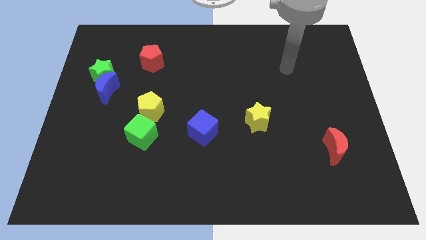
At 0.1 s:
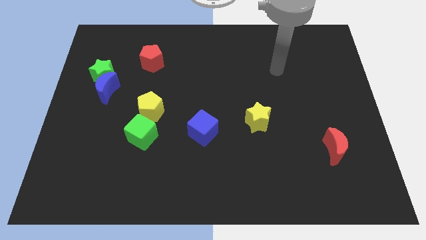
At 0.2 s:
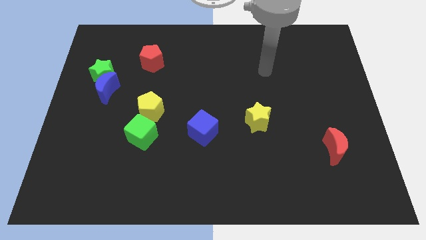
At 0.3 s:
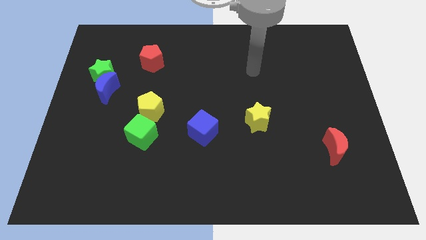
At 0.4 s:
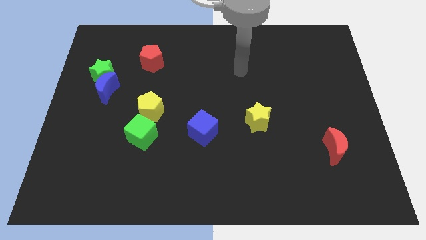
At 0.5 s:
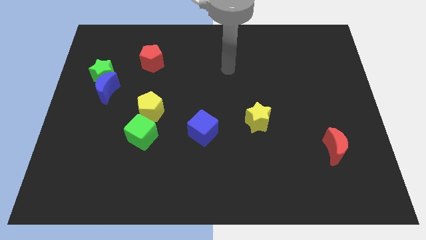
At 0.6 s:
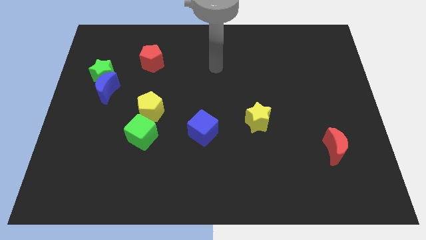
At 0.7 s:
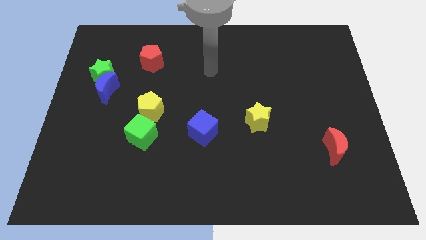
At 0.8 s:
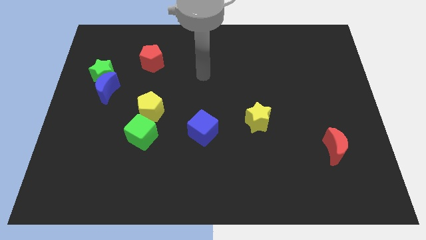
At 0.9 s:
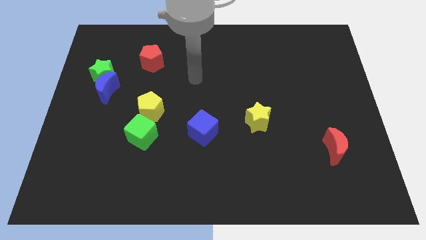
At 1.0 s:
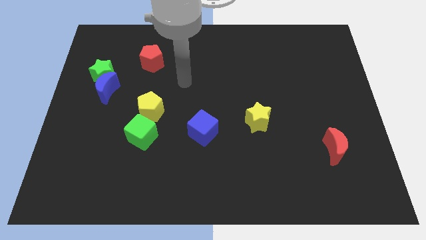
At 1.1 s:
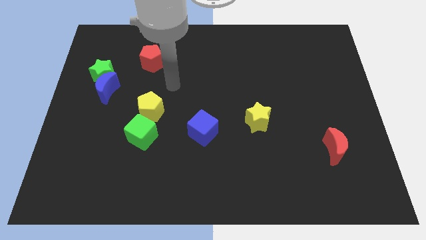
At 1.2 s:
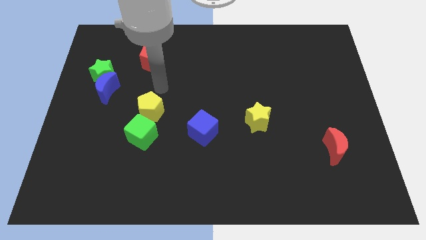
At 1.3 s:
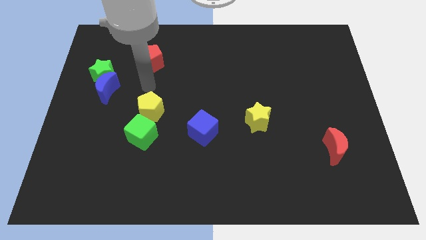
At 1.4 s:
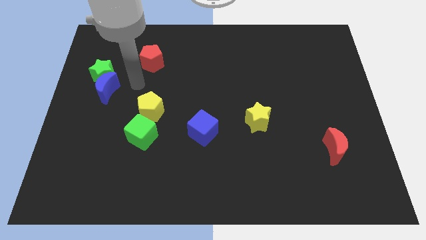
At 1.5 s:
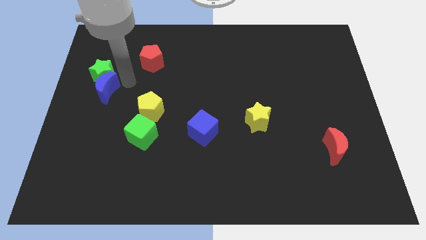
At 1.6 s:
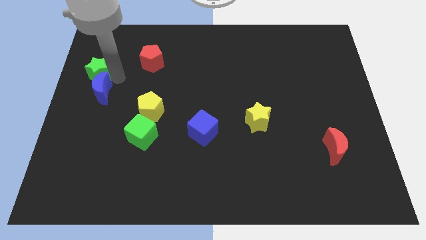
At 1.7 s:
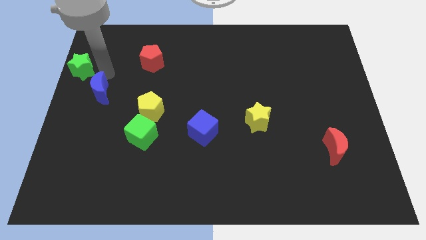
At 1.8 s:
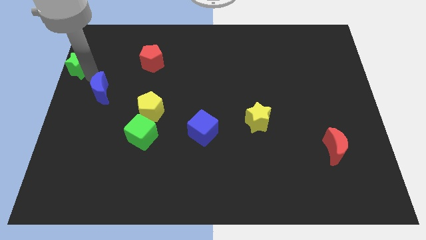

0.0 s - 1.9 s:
move the blue moon away from the green star

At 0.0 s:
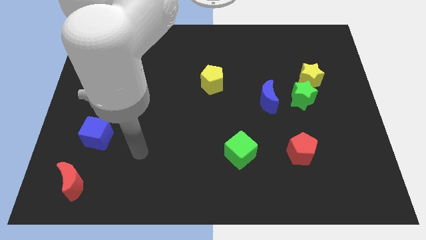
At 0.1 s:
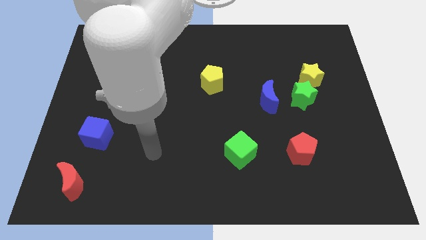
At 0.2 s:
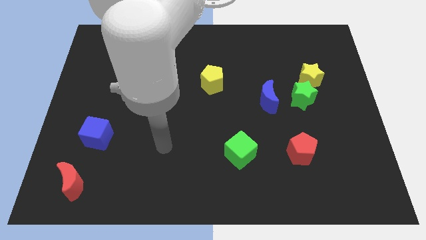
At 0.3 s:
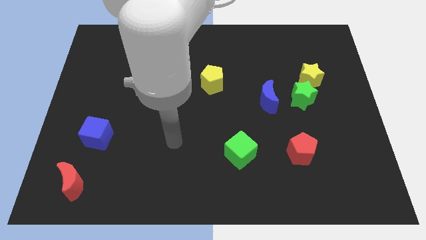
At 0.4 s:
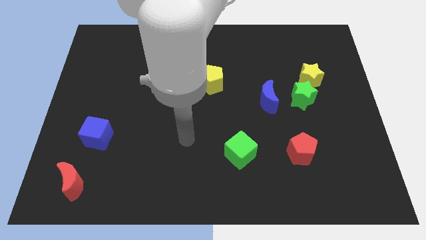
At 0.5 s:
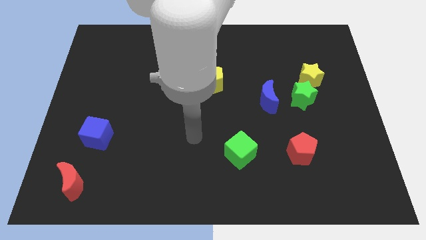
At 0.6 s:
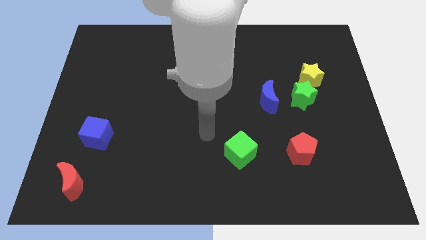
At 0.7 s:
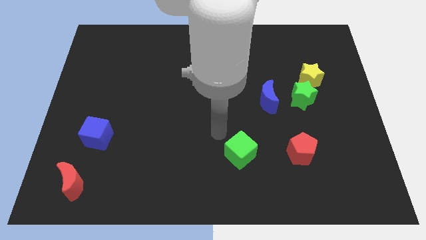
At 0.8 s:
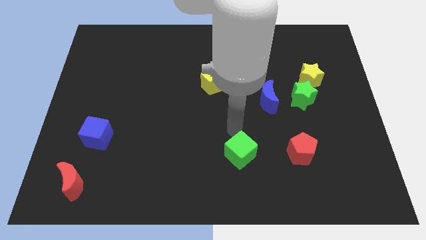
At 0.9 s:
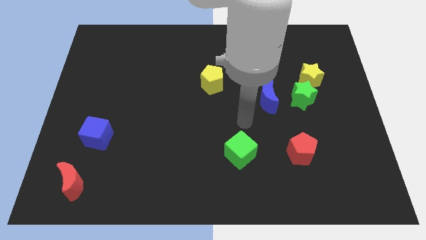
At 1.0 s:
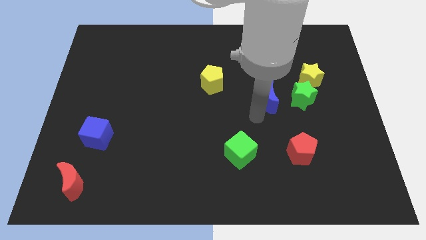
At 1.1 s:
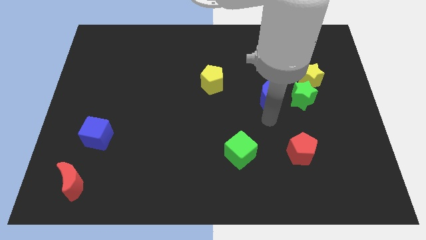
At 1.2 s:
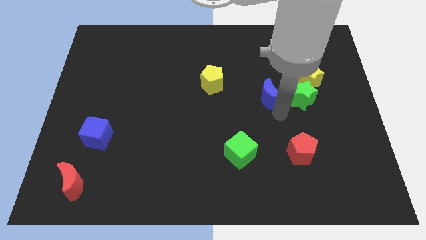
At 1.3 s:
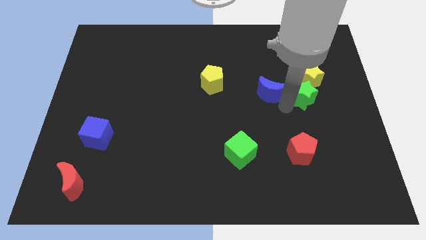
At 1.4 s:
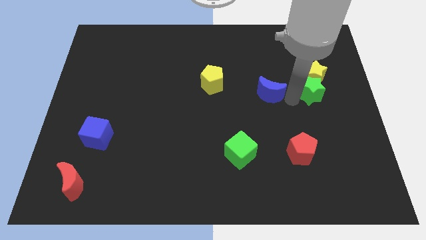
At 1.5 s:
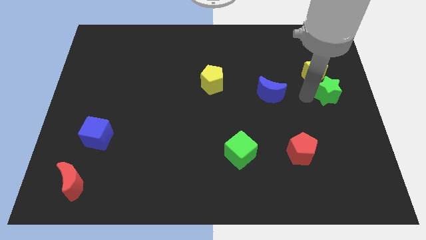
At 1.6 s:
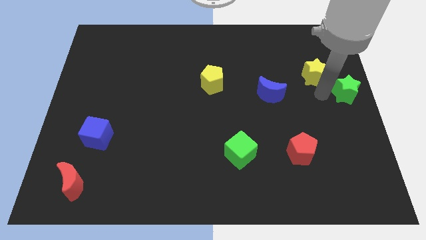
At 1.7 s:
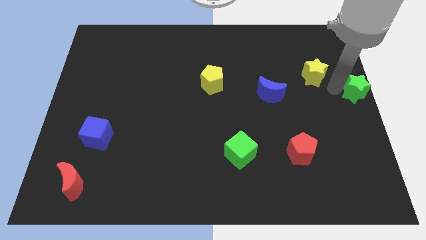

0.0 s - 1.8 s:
separate the yellow star from the green star

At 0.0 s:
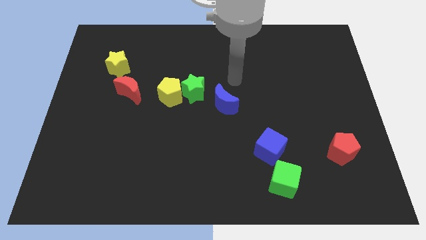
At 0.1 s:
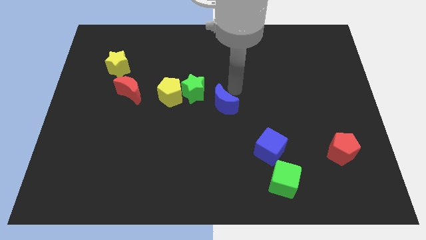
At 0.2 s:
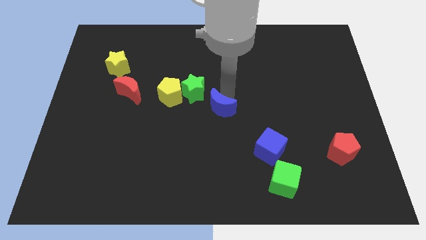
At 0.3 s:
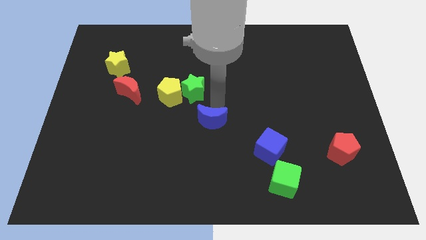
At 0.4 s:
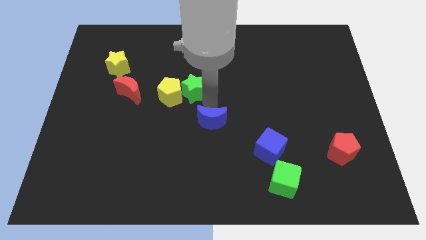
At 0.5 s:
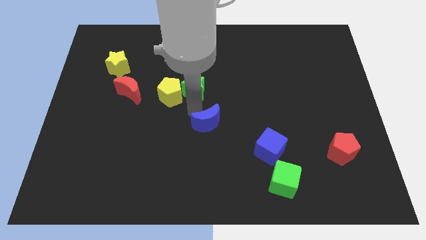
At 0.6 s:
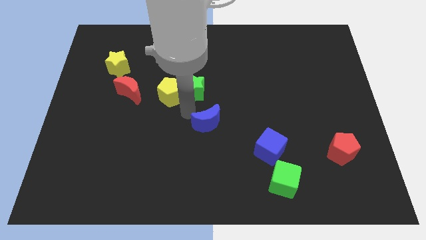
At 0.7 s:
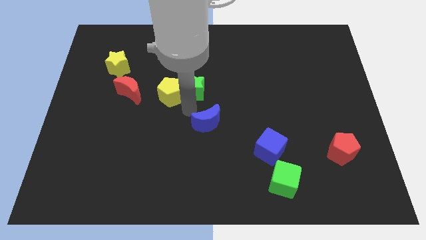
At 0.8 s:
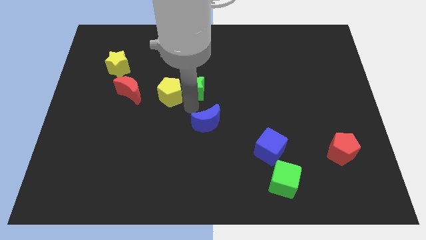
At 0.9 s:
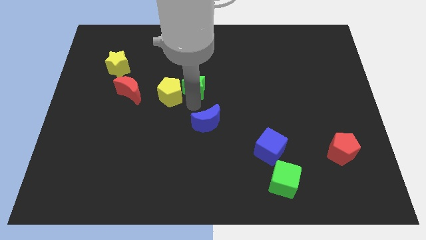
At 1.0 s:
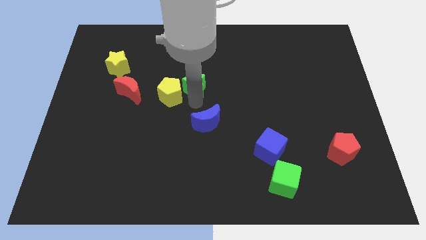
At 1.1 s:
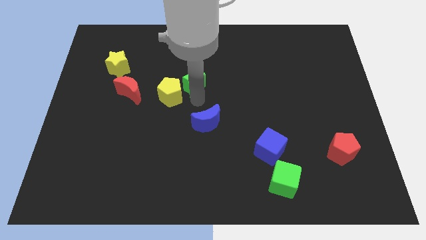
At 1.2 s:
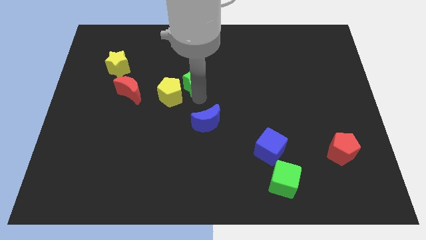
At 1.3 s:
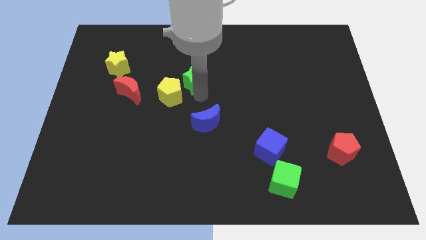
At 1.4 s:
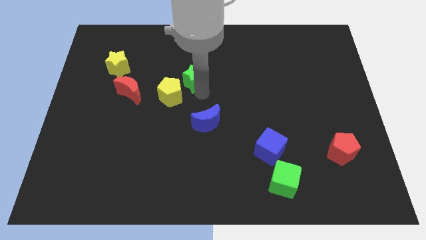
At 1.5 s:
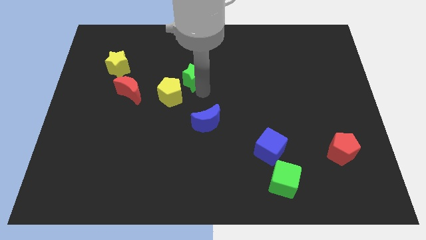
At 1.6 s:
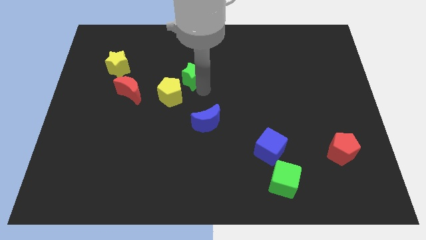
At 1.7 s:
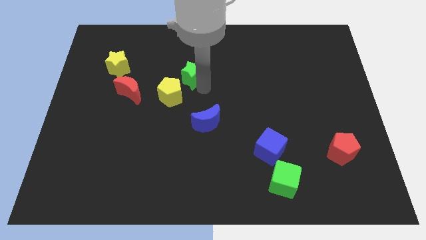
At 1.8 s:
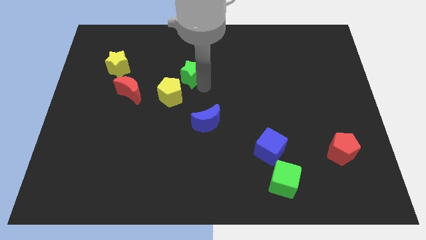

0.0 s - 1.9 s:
separate the green star from the yellow pentagon and blue moon

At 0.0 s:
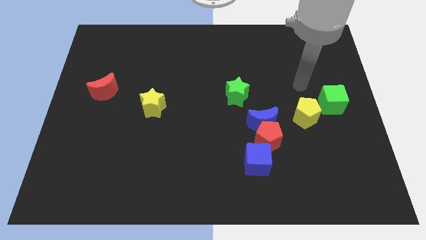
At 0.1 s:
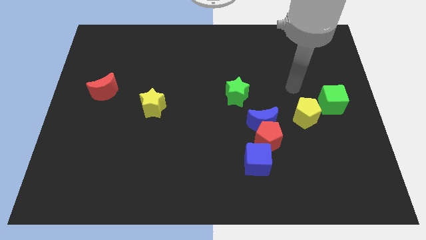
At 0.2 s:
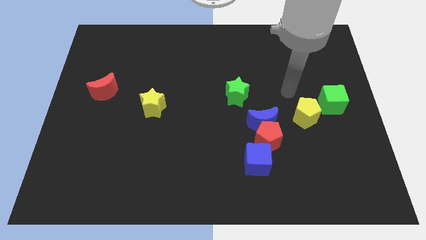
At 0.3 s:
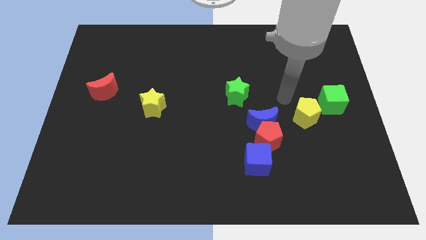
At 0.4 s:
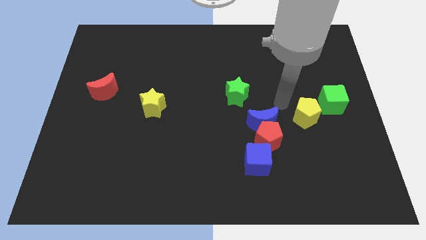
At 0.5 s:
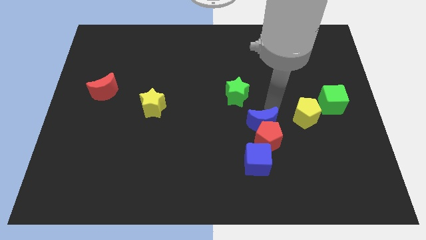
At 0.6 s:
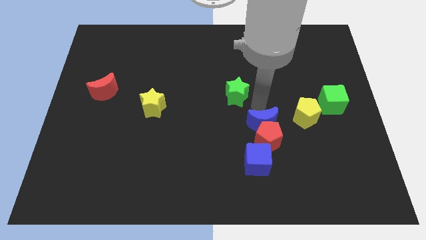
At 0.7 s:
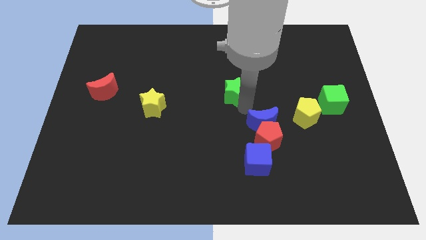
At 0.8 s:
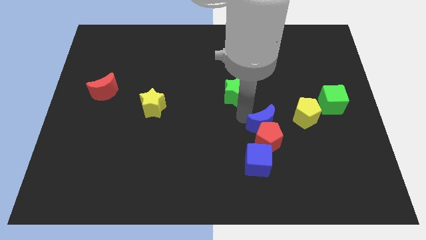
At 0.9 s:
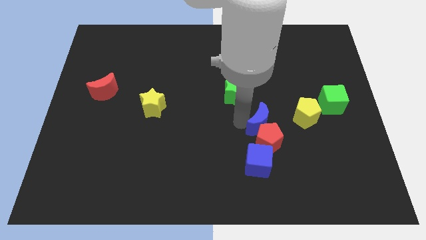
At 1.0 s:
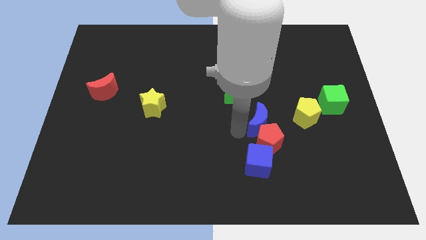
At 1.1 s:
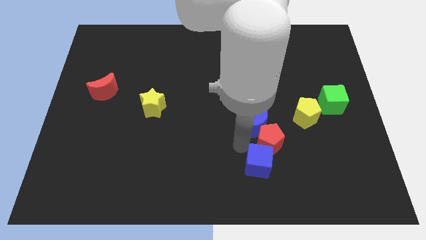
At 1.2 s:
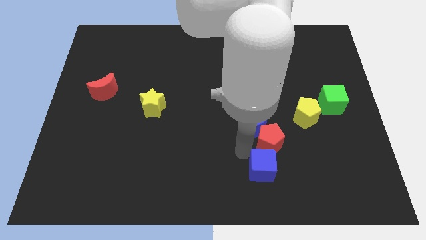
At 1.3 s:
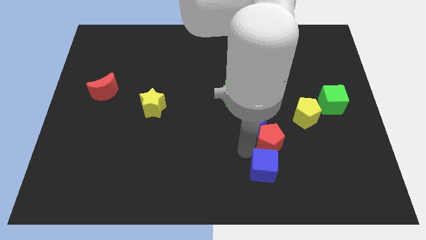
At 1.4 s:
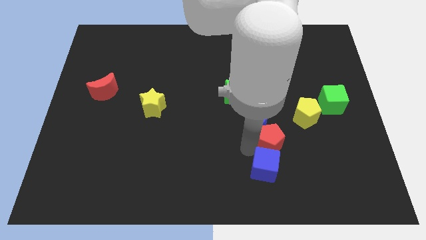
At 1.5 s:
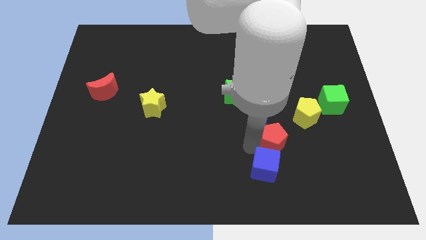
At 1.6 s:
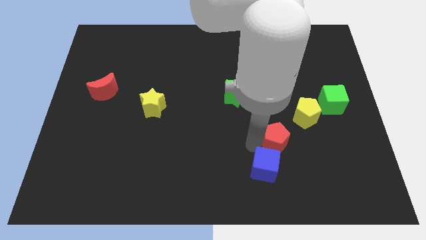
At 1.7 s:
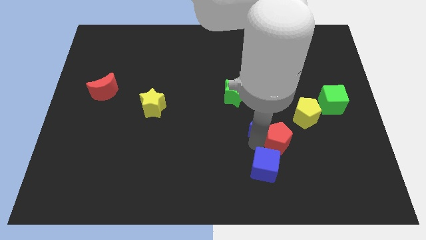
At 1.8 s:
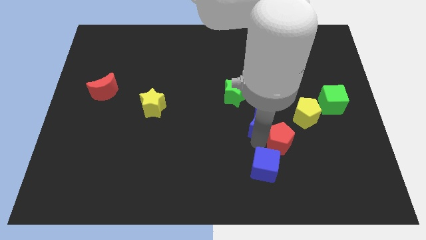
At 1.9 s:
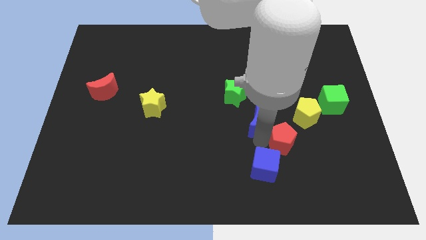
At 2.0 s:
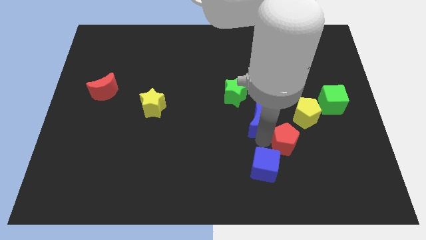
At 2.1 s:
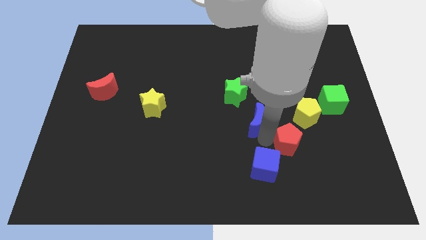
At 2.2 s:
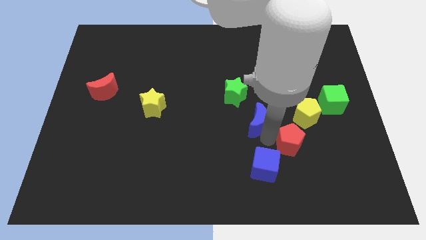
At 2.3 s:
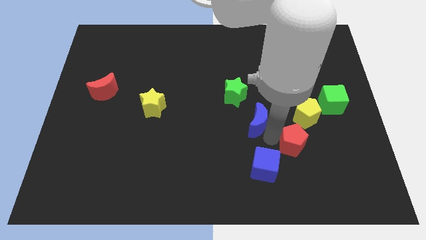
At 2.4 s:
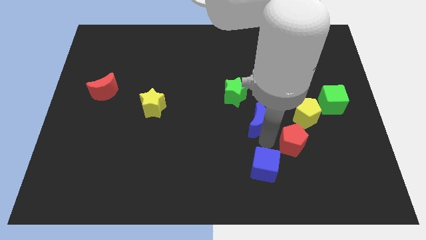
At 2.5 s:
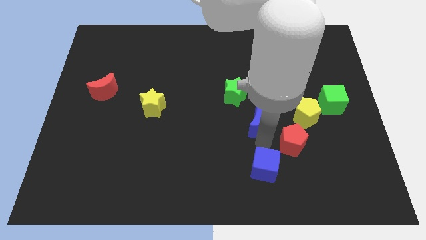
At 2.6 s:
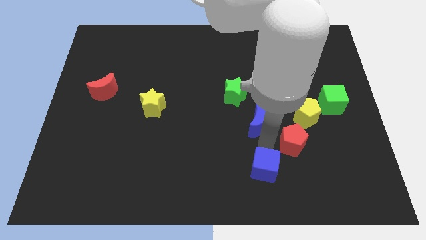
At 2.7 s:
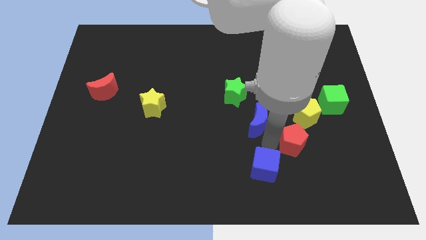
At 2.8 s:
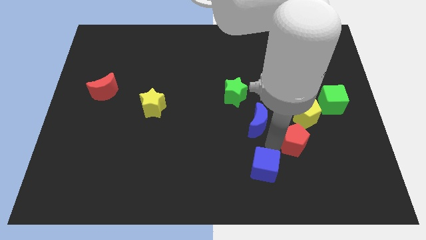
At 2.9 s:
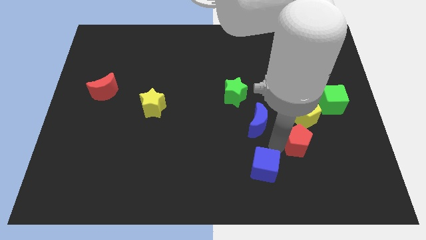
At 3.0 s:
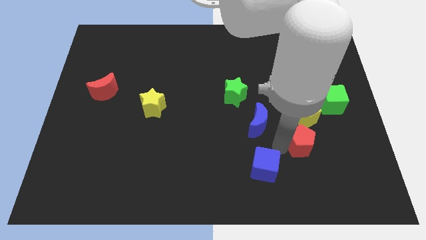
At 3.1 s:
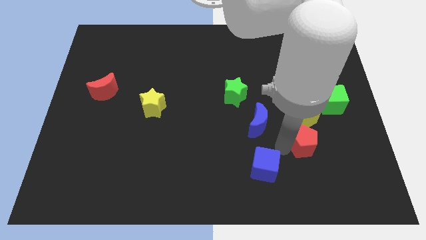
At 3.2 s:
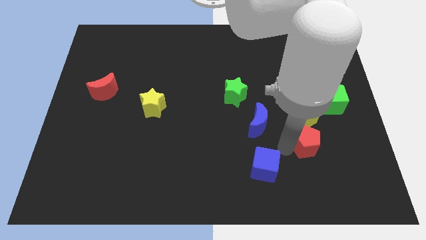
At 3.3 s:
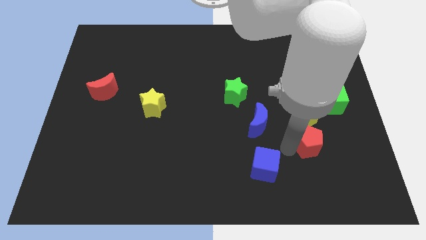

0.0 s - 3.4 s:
pull the red pentagon apart from the blue moon and blue cube

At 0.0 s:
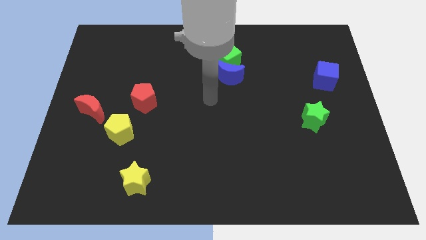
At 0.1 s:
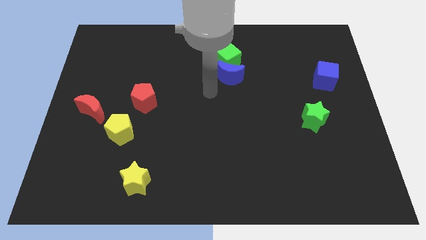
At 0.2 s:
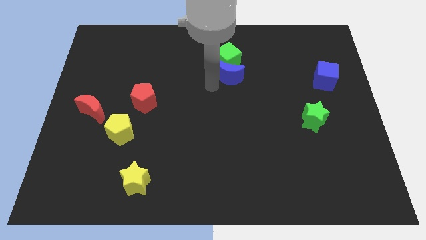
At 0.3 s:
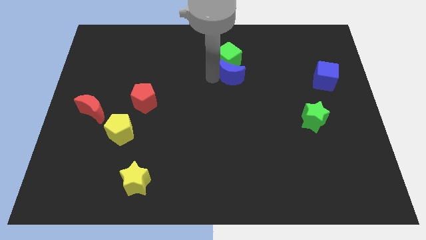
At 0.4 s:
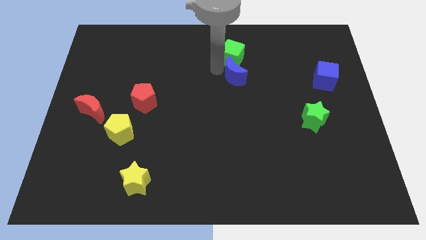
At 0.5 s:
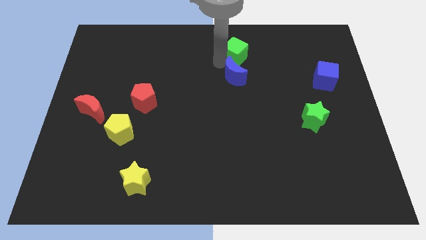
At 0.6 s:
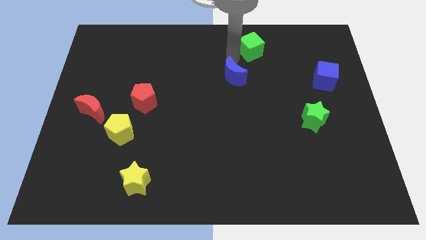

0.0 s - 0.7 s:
separate the blue moon from the green cube
